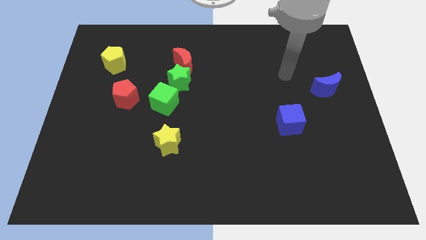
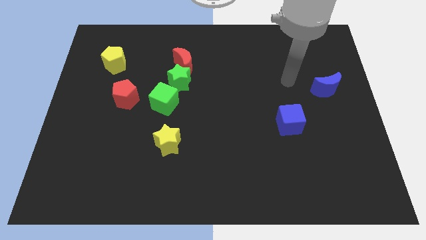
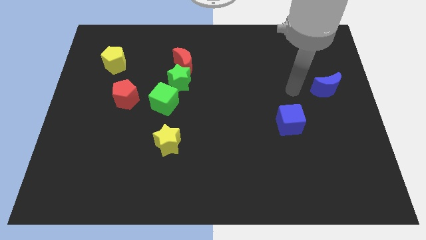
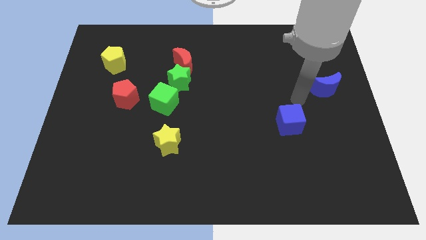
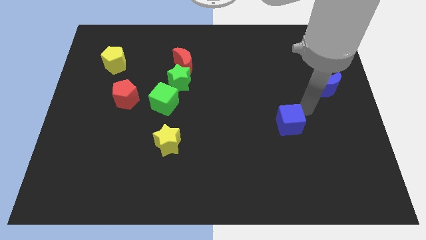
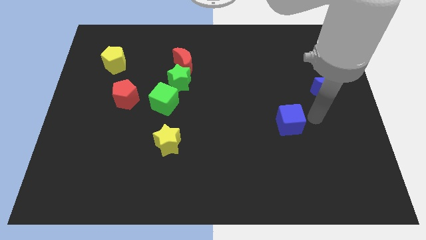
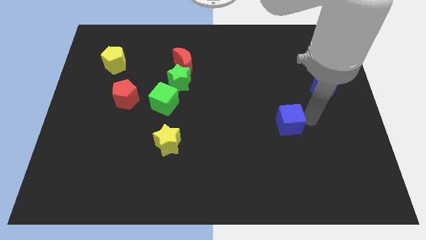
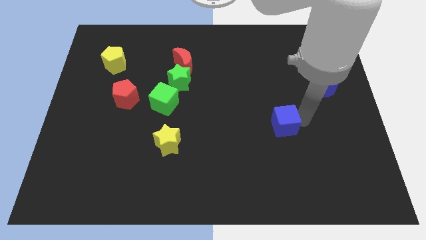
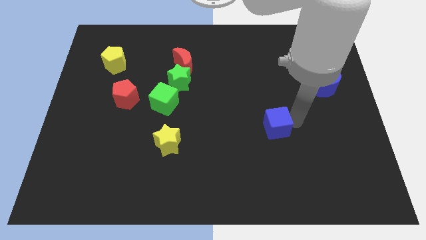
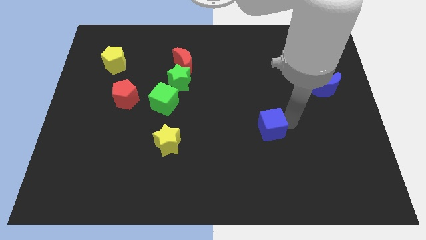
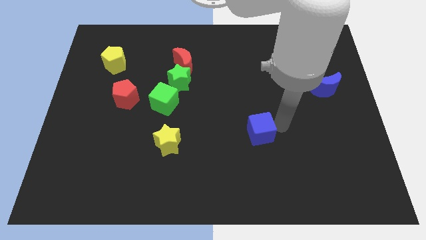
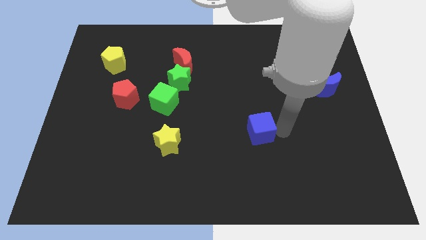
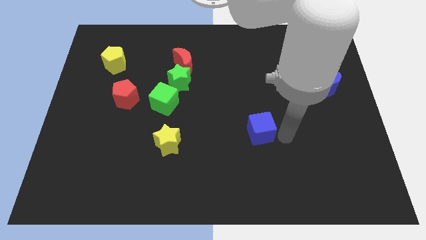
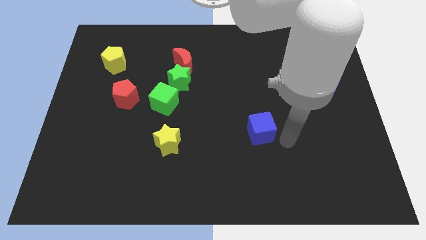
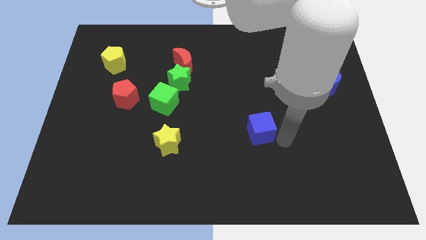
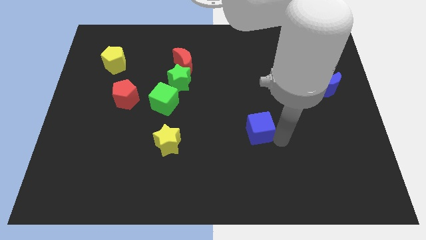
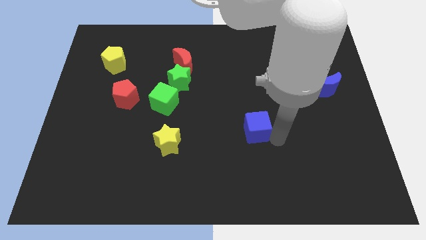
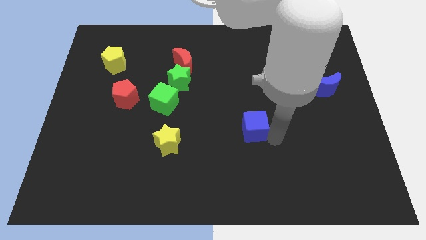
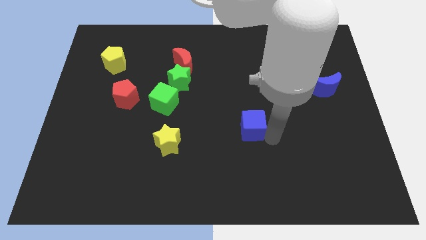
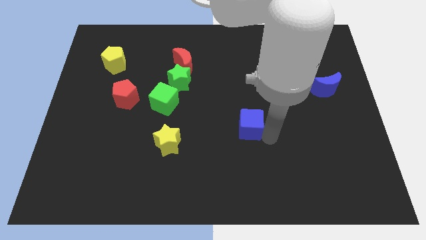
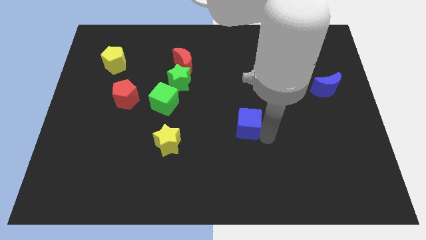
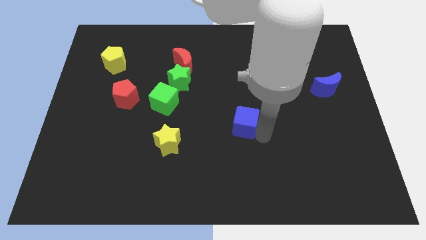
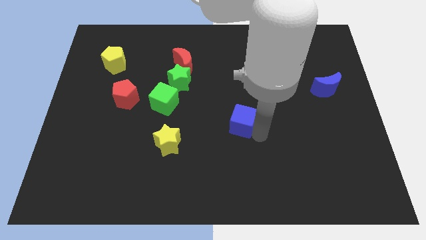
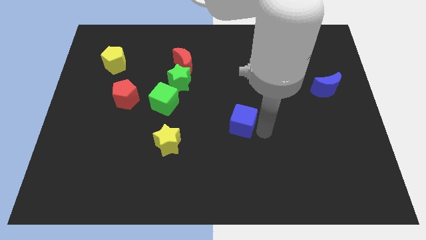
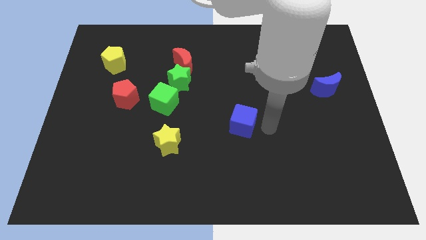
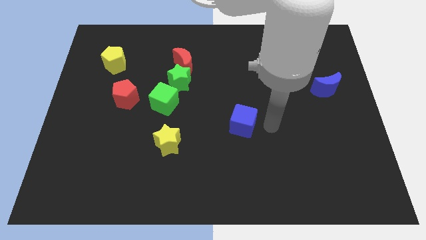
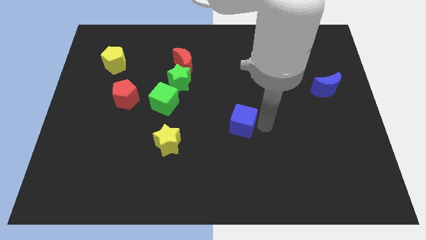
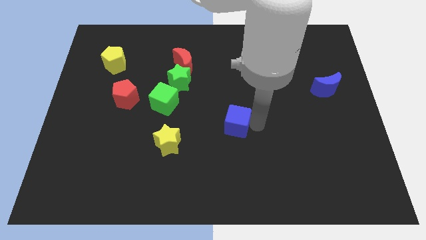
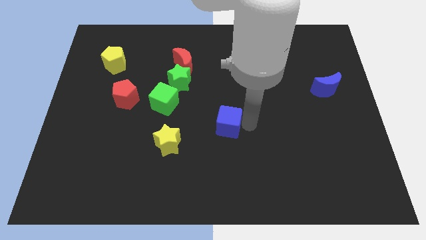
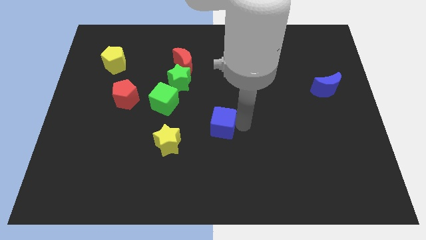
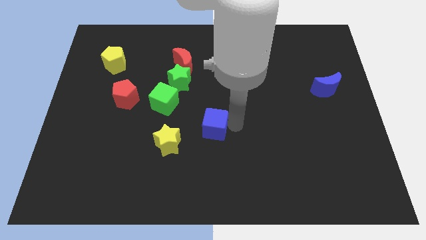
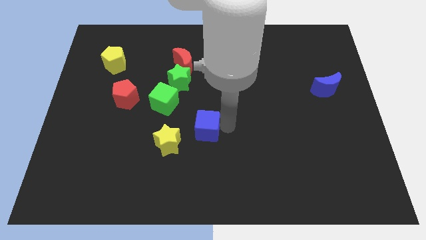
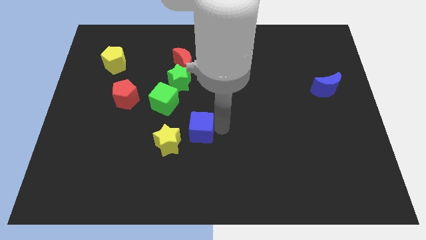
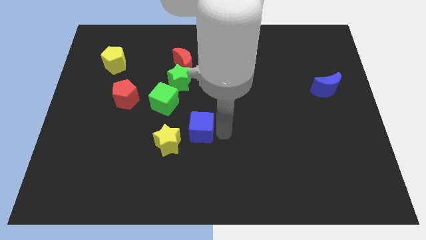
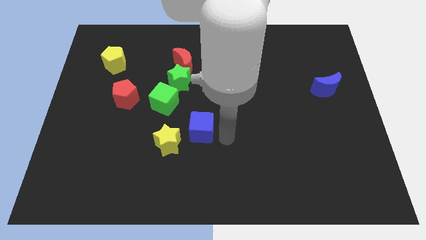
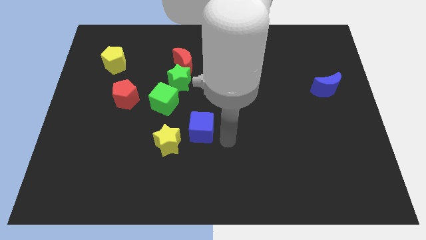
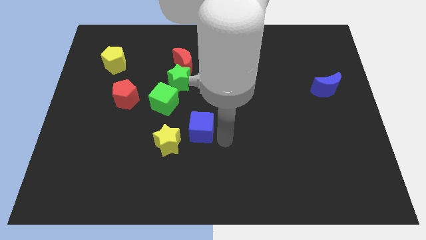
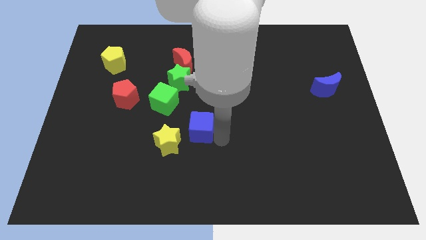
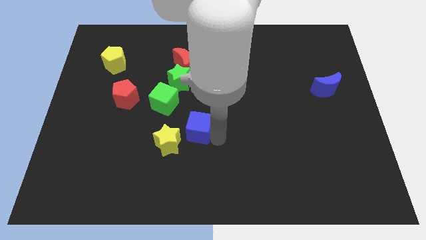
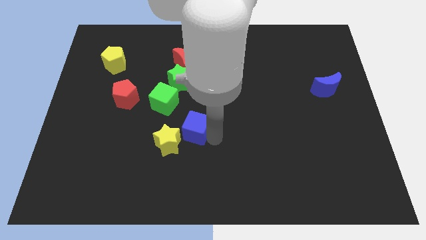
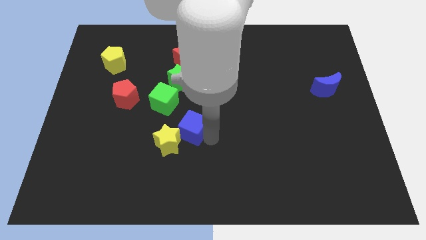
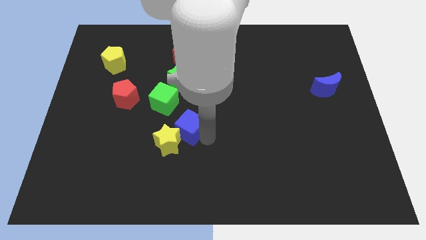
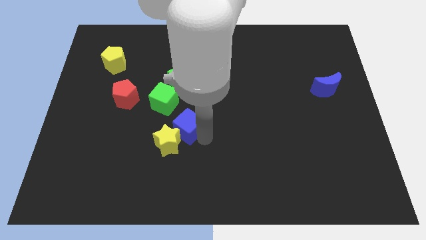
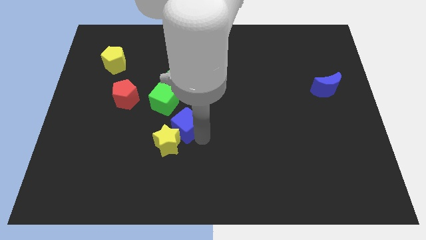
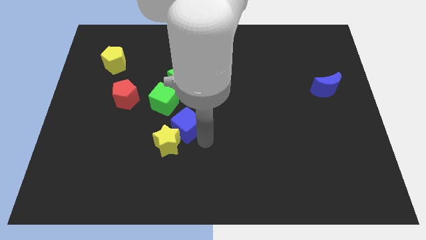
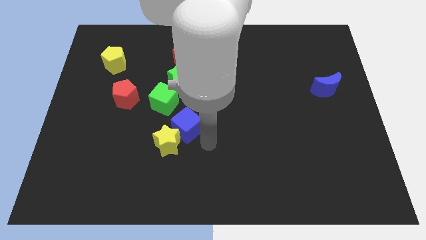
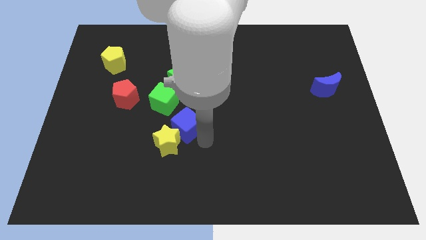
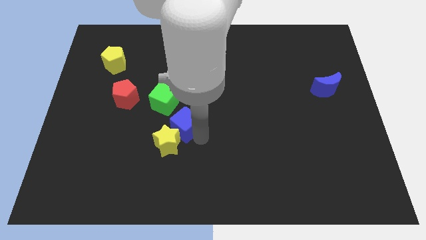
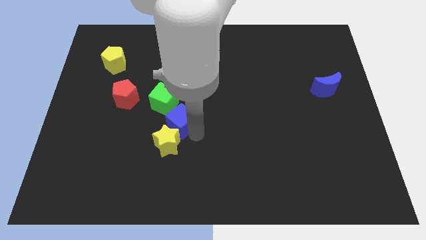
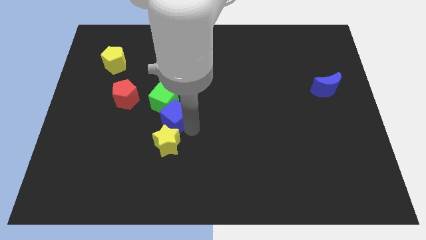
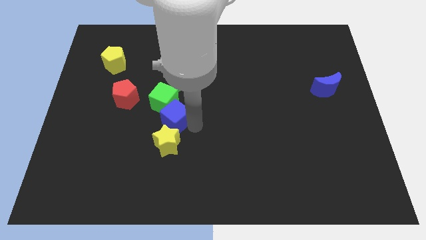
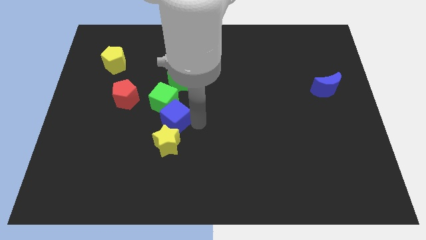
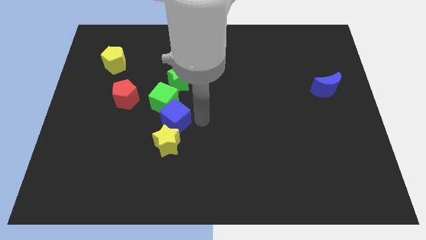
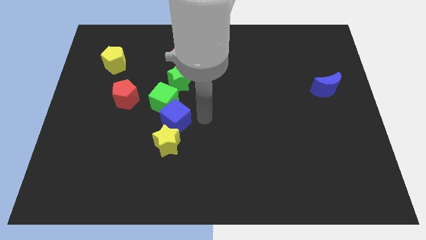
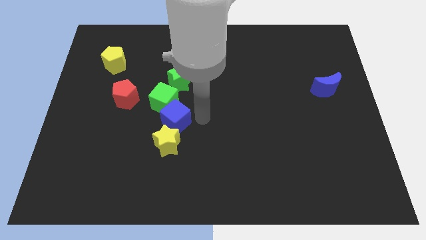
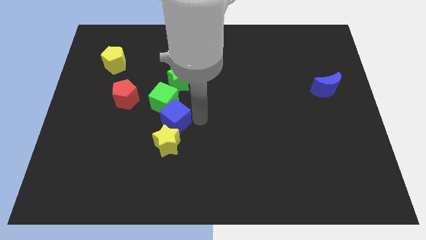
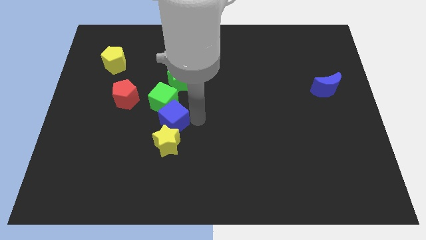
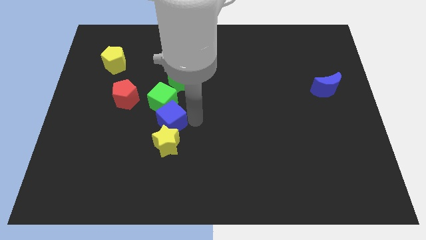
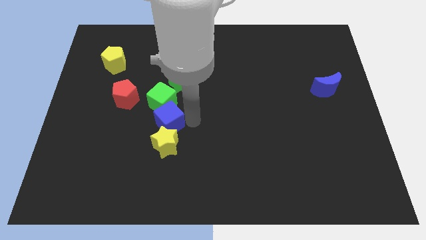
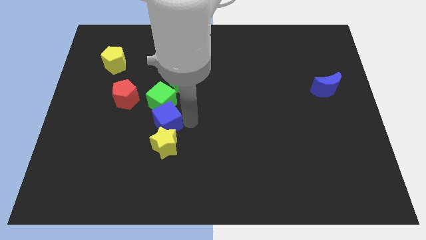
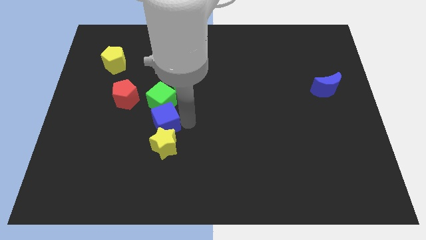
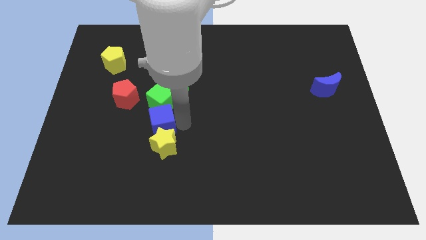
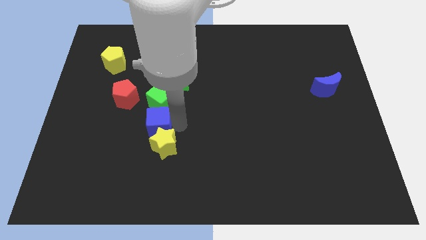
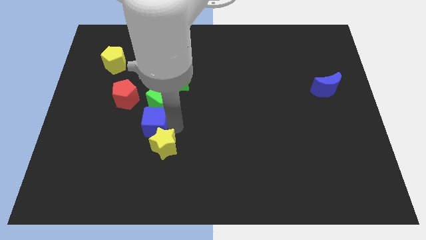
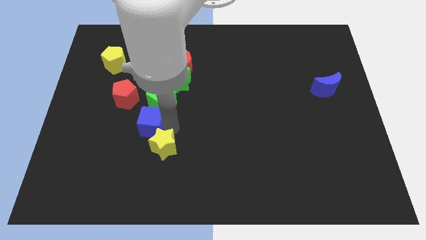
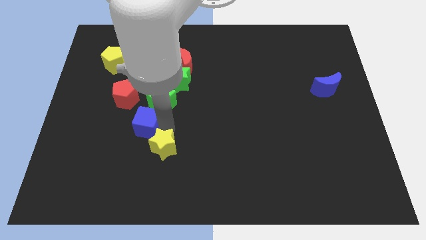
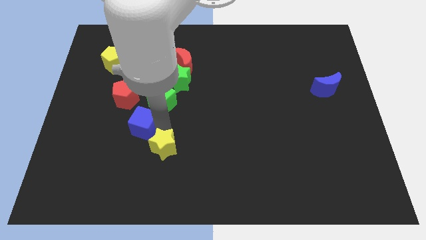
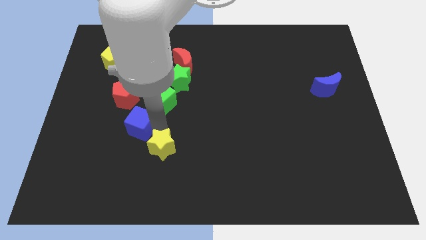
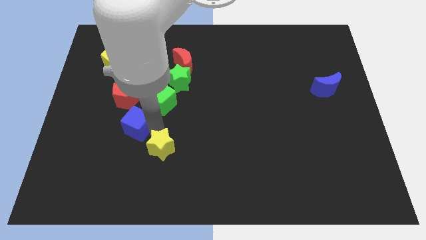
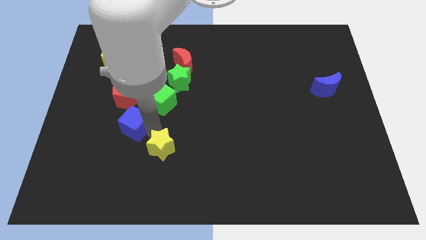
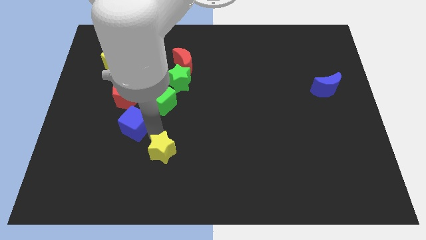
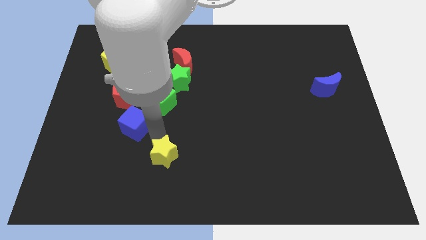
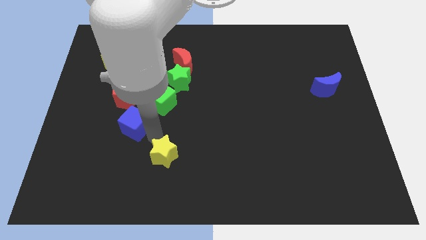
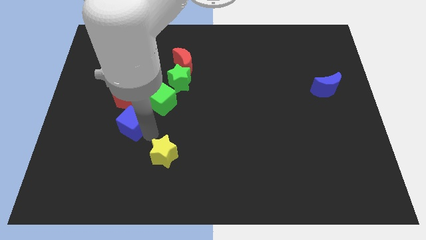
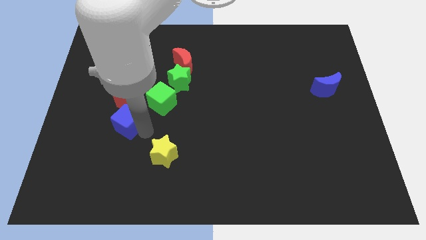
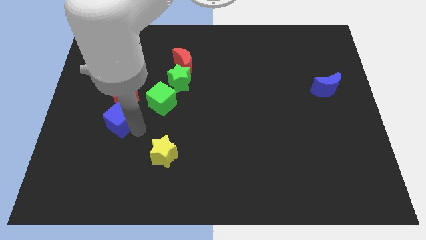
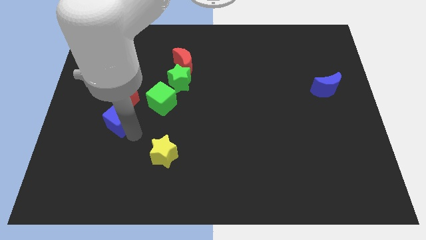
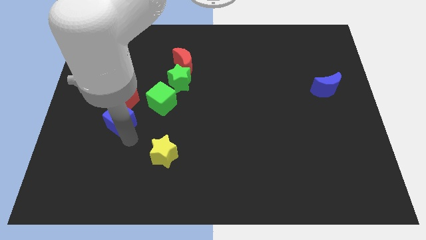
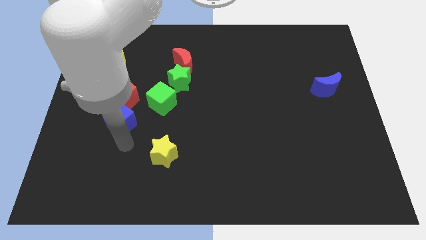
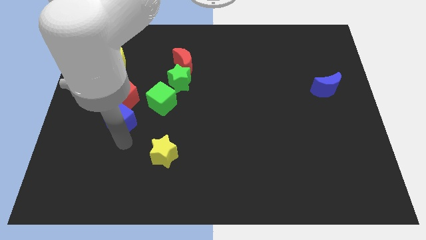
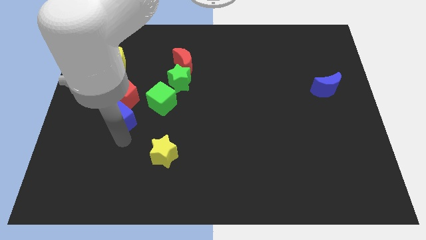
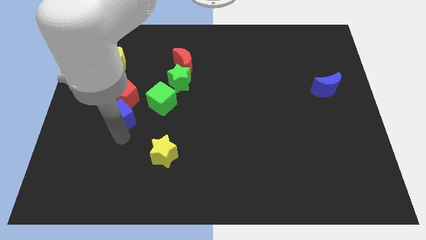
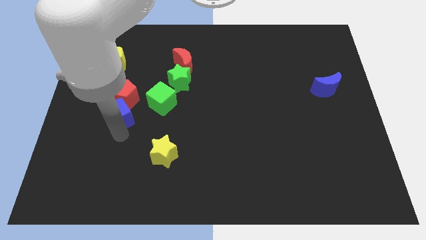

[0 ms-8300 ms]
slide the blue cube to the left of the green cube
